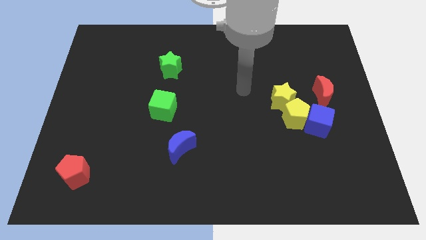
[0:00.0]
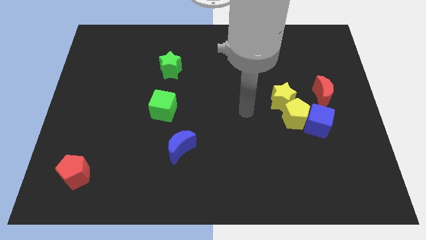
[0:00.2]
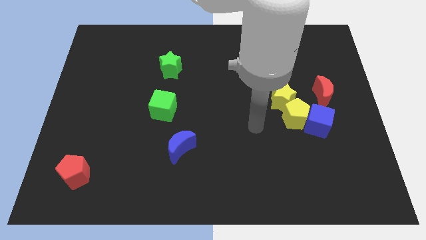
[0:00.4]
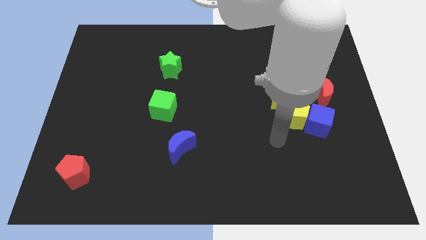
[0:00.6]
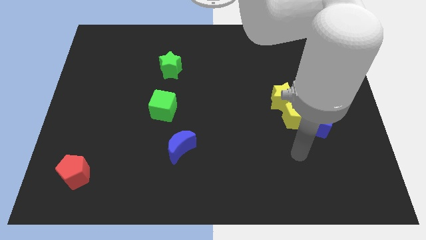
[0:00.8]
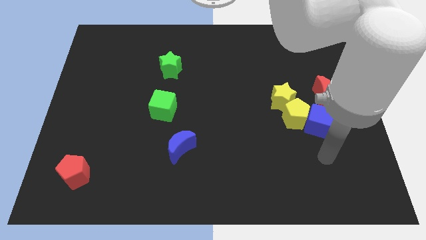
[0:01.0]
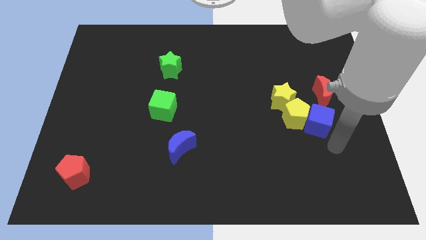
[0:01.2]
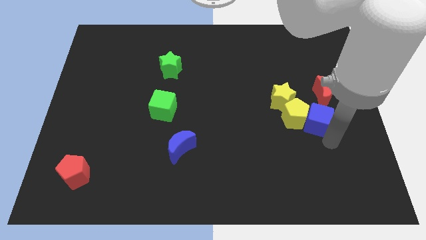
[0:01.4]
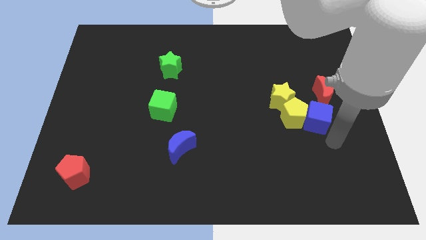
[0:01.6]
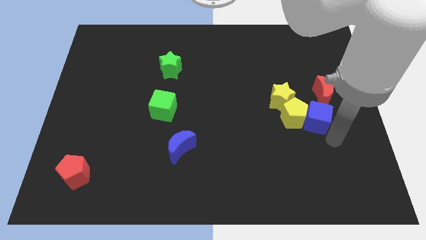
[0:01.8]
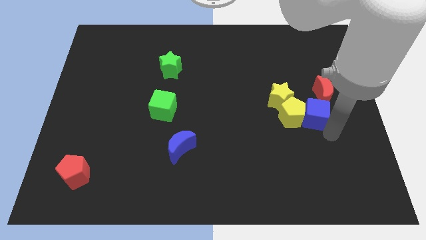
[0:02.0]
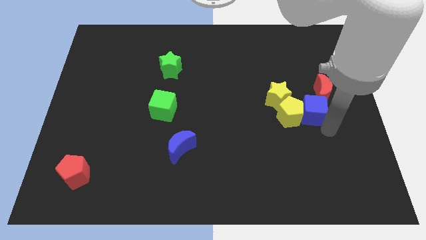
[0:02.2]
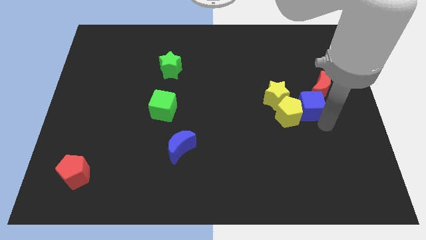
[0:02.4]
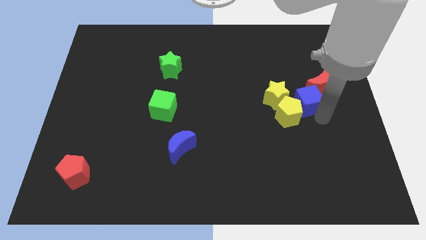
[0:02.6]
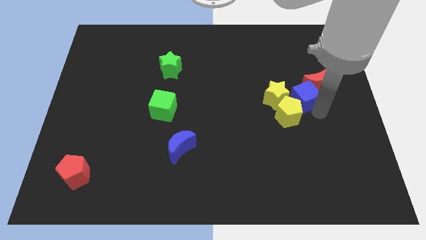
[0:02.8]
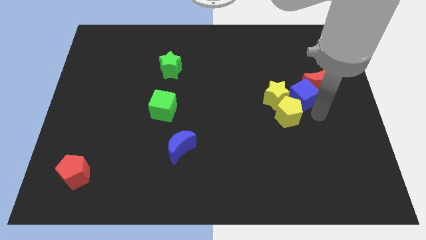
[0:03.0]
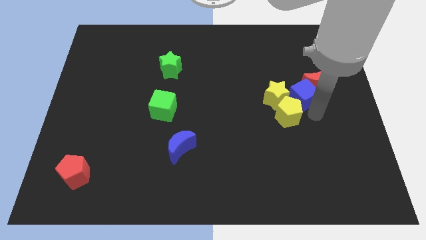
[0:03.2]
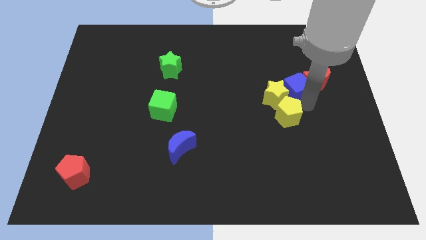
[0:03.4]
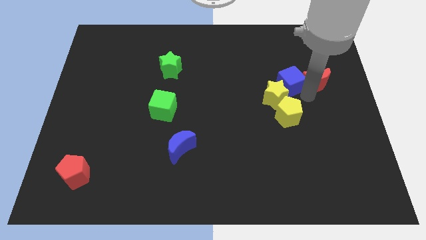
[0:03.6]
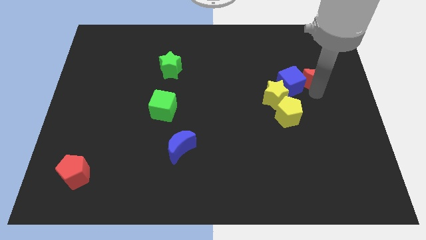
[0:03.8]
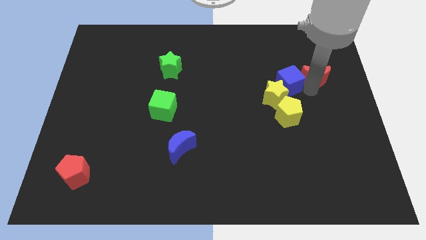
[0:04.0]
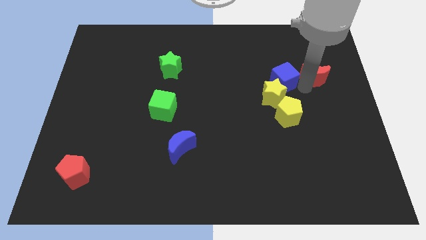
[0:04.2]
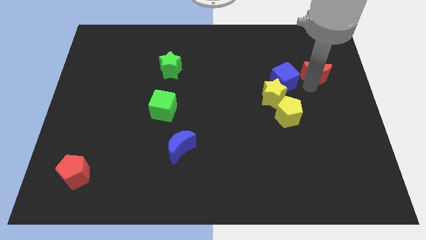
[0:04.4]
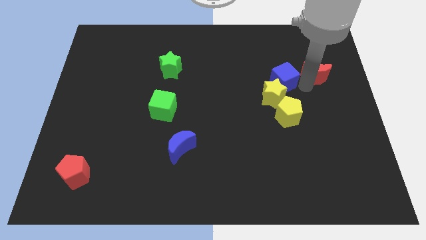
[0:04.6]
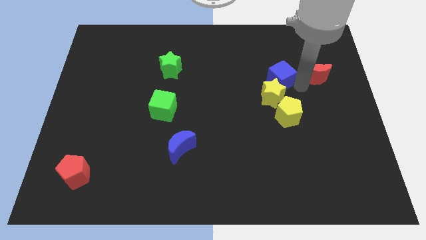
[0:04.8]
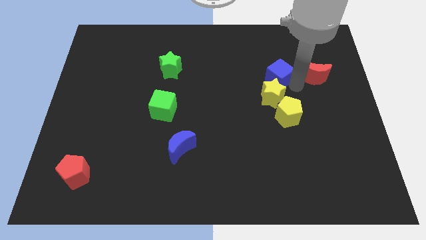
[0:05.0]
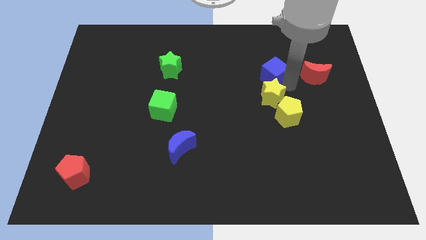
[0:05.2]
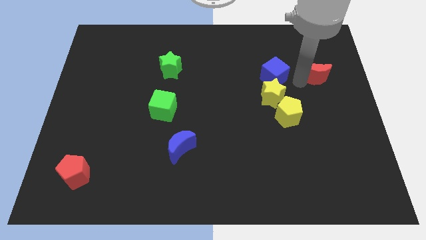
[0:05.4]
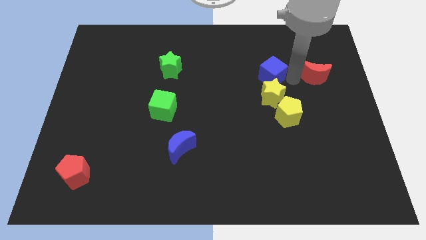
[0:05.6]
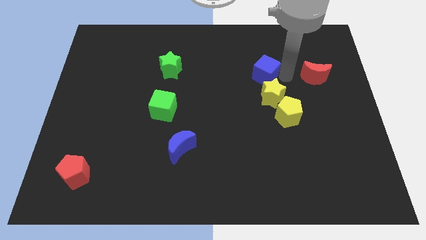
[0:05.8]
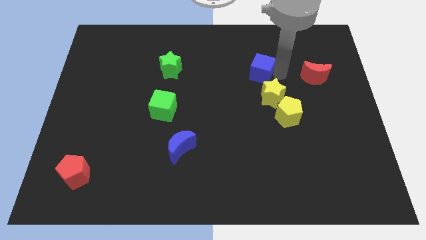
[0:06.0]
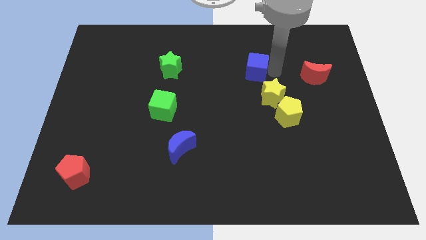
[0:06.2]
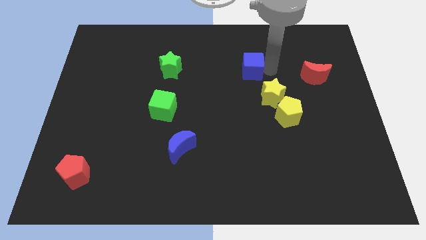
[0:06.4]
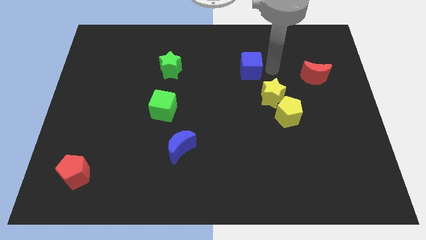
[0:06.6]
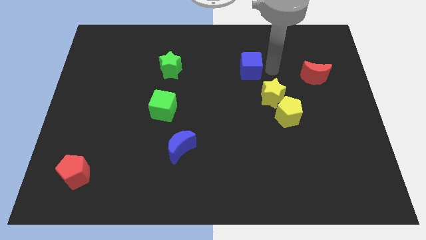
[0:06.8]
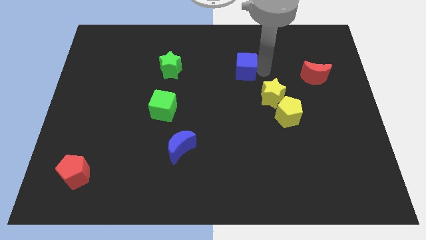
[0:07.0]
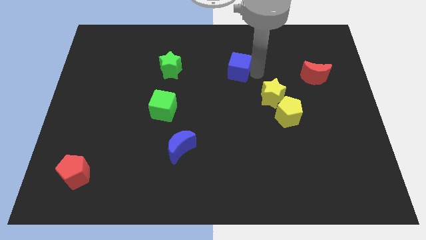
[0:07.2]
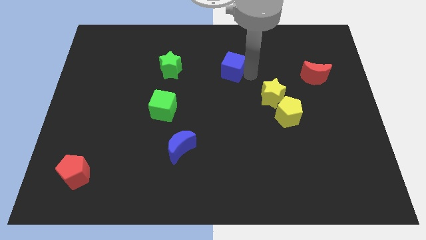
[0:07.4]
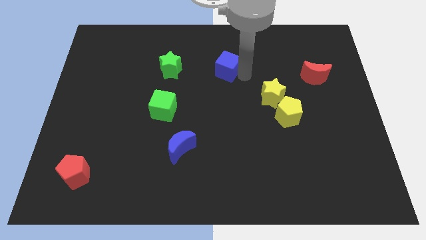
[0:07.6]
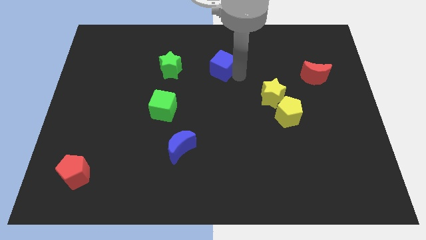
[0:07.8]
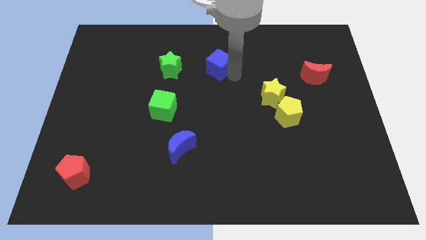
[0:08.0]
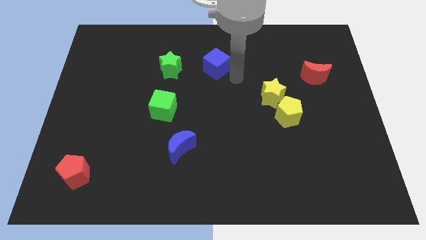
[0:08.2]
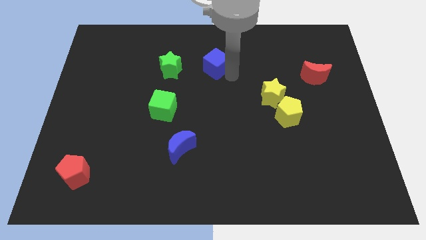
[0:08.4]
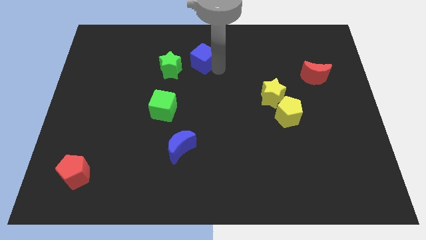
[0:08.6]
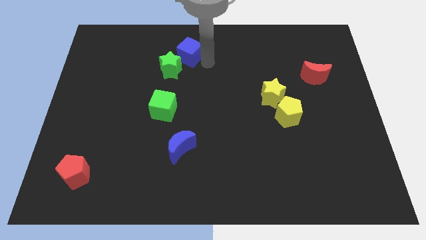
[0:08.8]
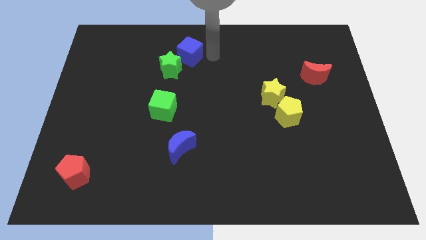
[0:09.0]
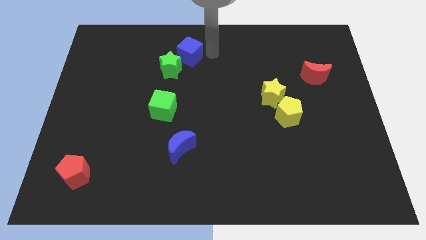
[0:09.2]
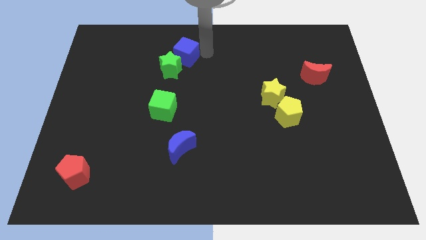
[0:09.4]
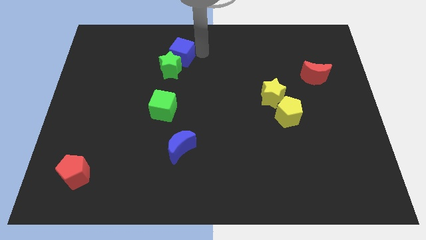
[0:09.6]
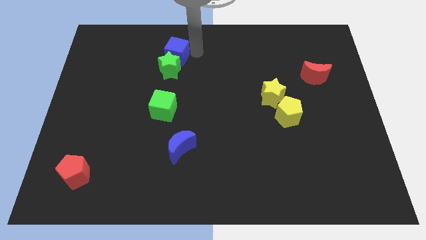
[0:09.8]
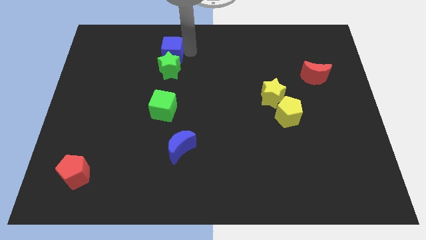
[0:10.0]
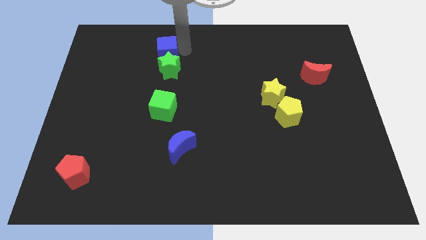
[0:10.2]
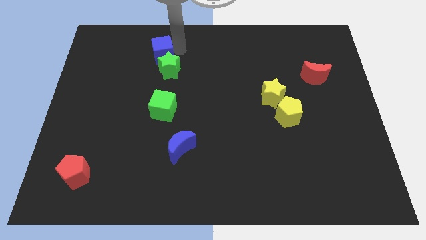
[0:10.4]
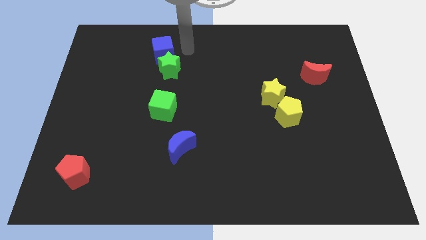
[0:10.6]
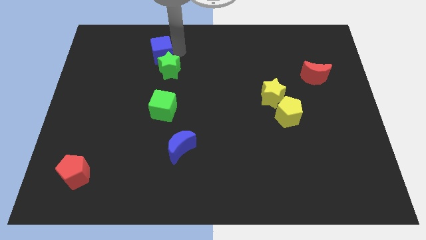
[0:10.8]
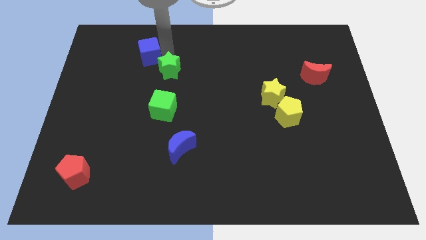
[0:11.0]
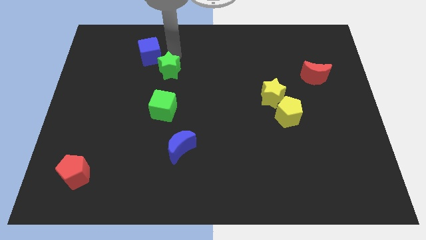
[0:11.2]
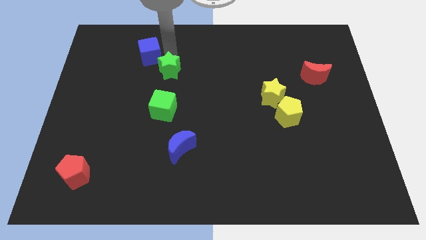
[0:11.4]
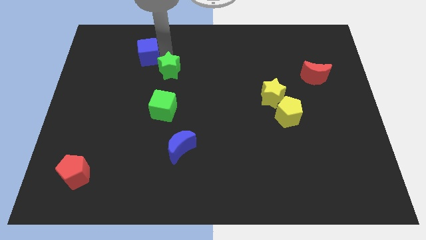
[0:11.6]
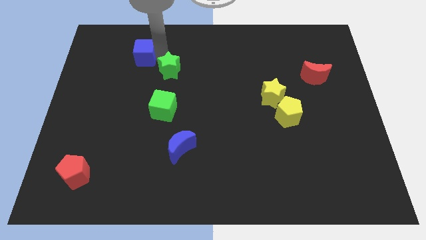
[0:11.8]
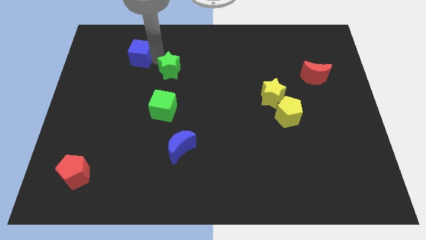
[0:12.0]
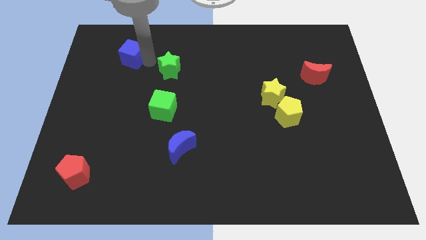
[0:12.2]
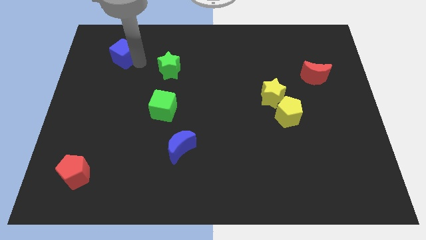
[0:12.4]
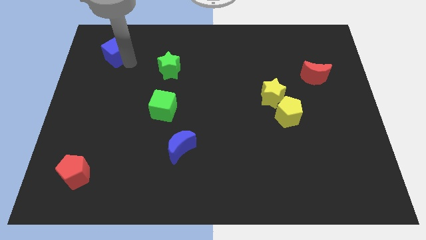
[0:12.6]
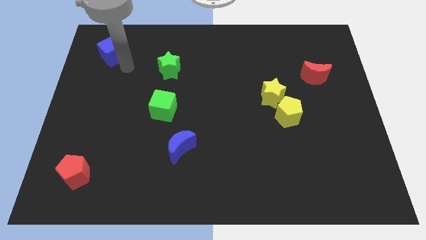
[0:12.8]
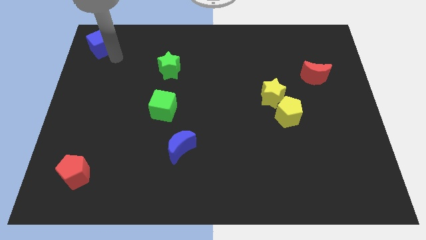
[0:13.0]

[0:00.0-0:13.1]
move the blue cube to the top left
